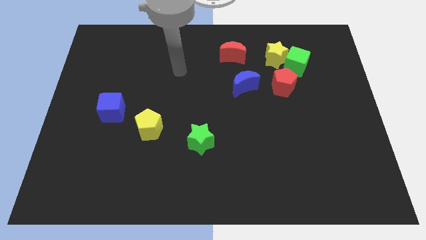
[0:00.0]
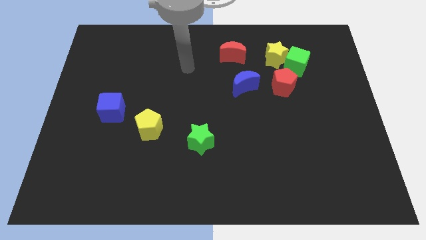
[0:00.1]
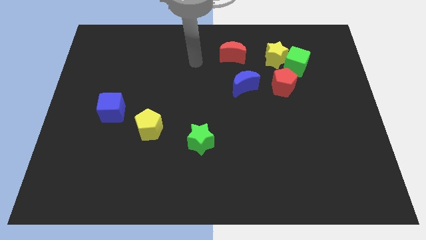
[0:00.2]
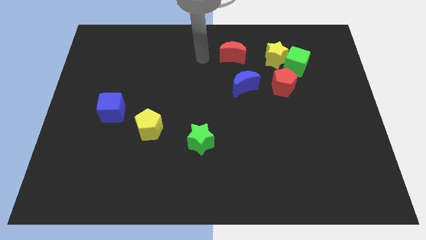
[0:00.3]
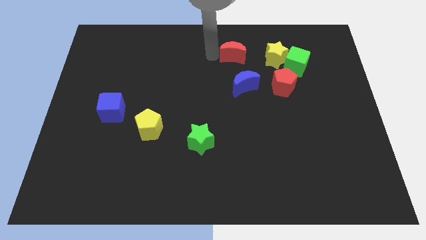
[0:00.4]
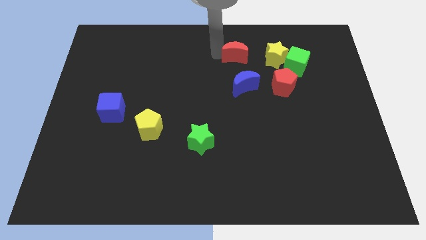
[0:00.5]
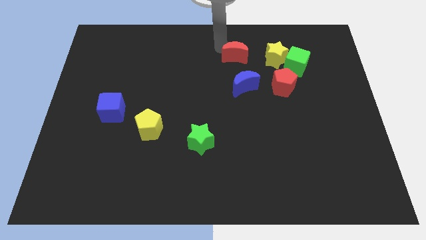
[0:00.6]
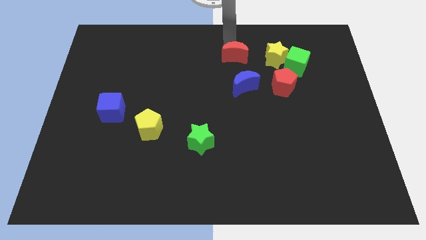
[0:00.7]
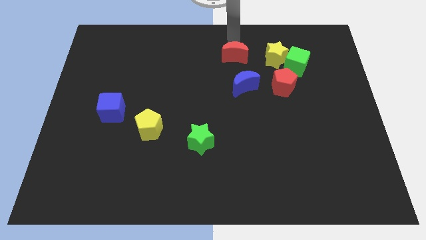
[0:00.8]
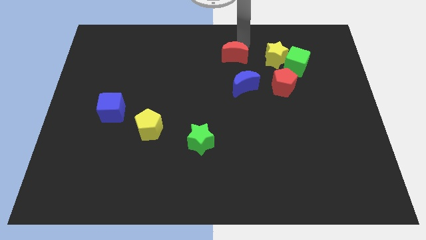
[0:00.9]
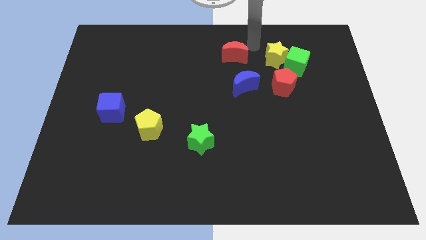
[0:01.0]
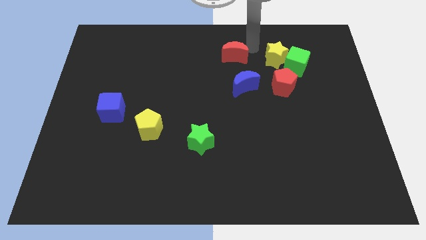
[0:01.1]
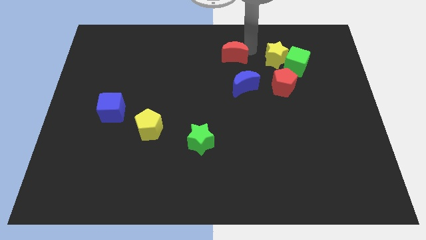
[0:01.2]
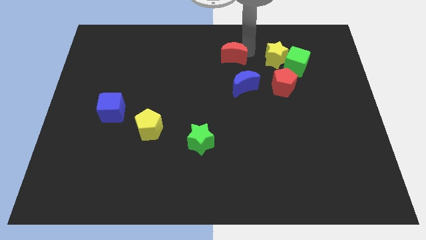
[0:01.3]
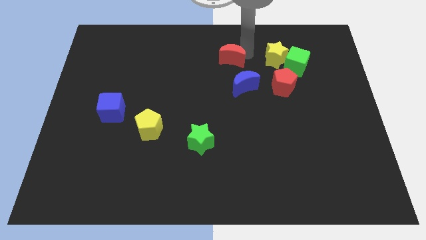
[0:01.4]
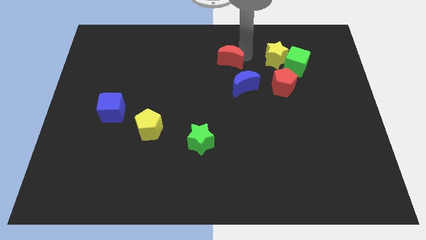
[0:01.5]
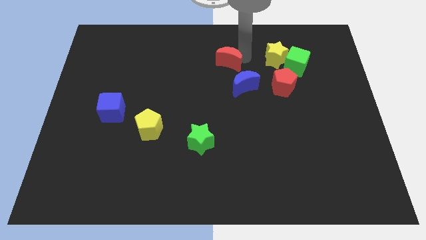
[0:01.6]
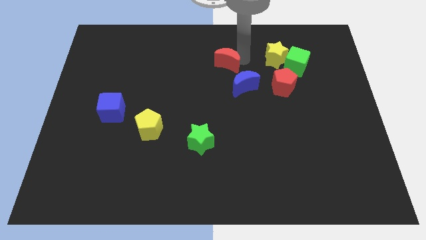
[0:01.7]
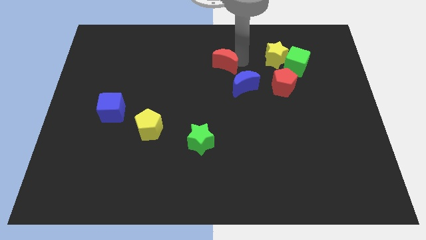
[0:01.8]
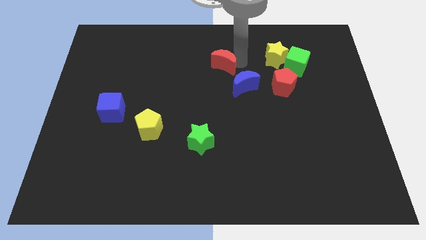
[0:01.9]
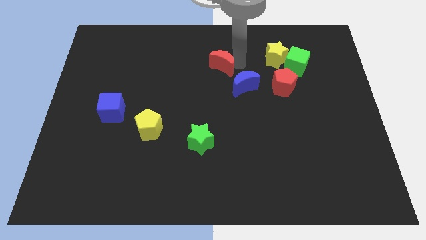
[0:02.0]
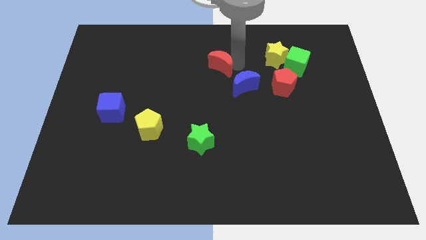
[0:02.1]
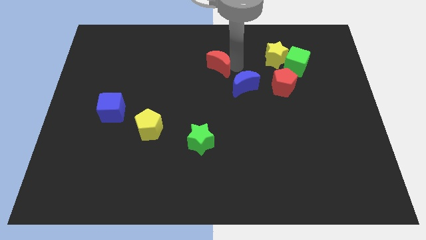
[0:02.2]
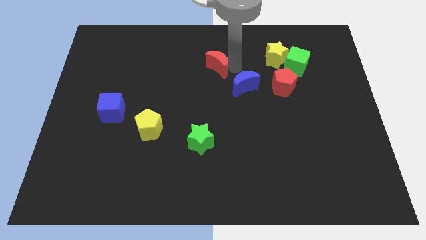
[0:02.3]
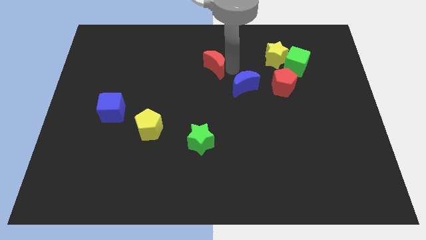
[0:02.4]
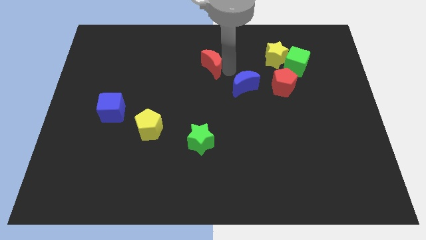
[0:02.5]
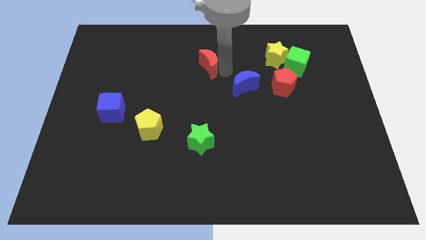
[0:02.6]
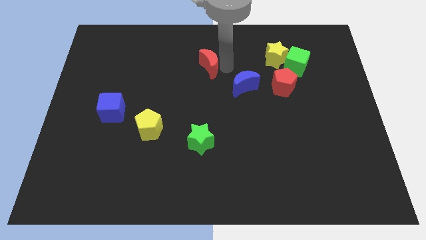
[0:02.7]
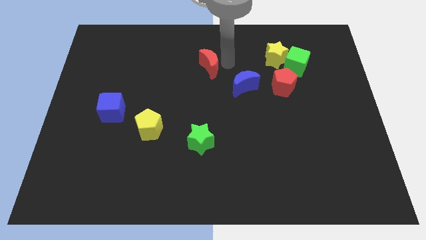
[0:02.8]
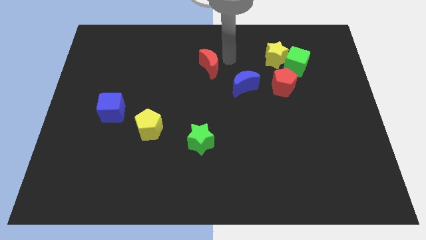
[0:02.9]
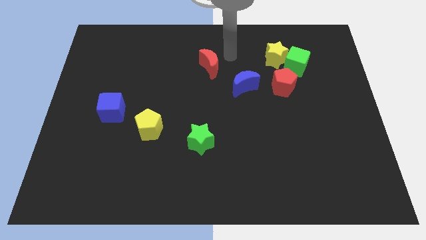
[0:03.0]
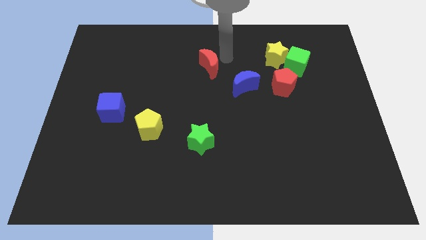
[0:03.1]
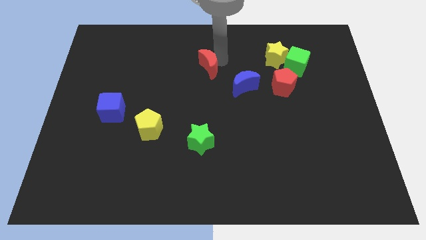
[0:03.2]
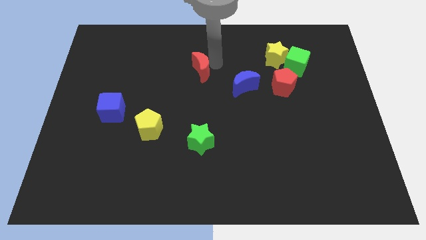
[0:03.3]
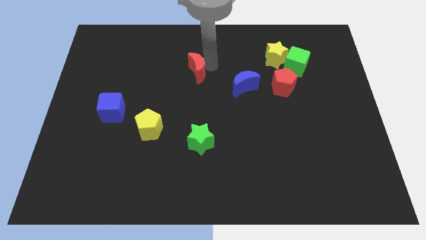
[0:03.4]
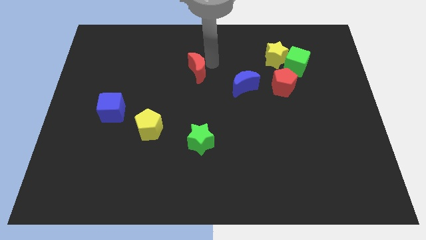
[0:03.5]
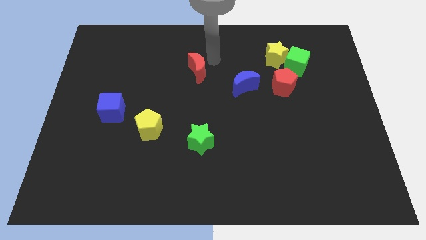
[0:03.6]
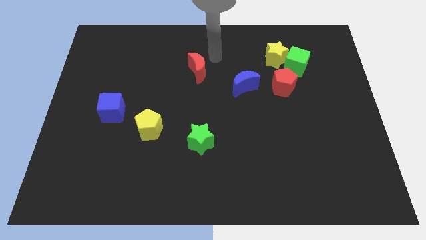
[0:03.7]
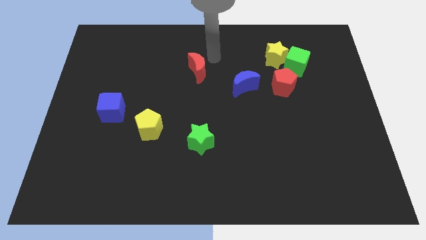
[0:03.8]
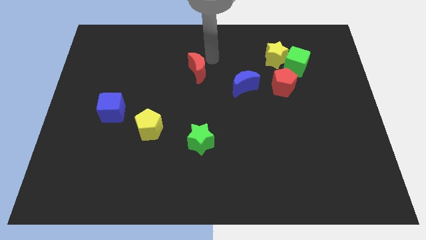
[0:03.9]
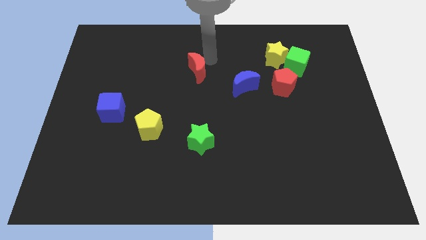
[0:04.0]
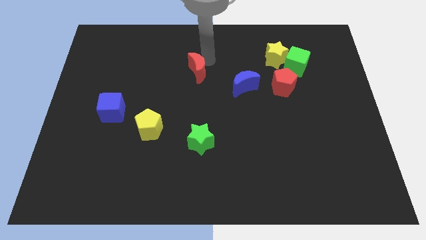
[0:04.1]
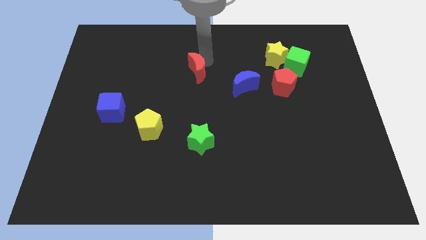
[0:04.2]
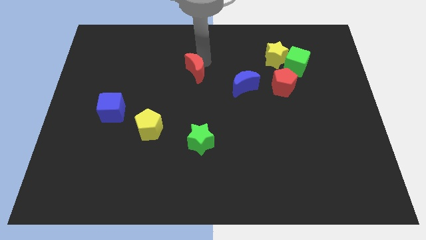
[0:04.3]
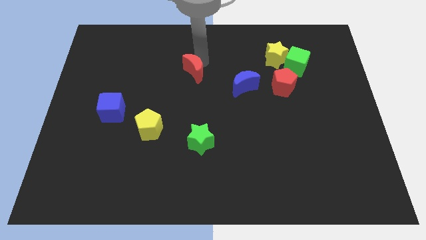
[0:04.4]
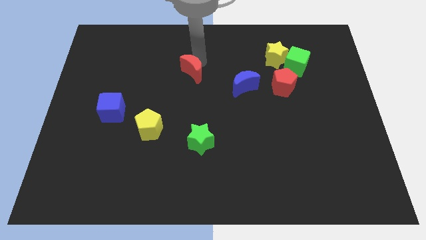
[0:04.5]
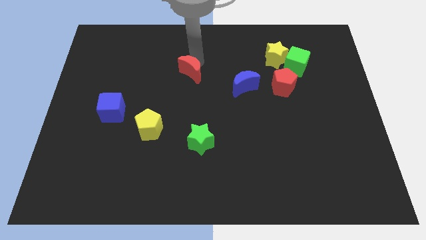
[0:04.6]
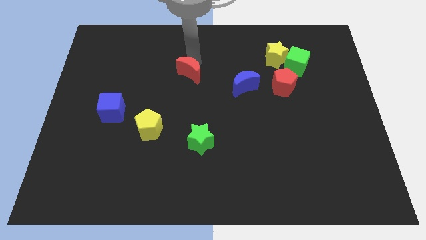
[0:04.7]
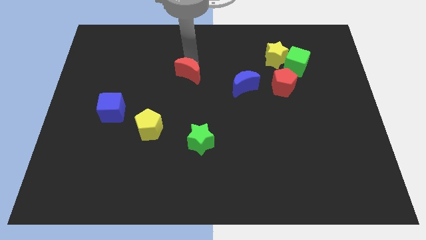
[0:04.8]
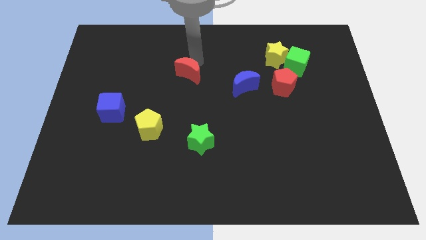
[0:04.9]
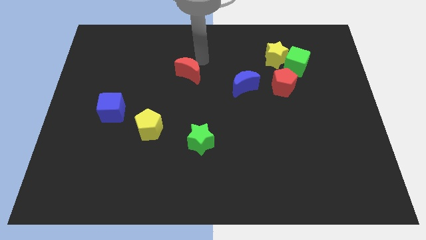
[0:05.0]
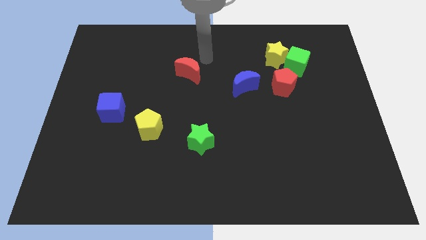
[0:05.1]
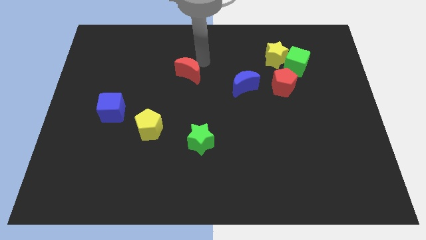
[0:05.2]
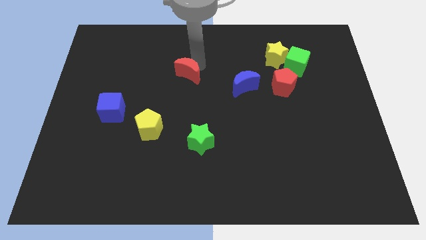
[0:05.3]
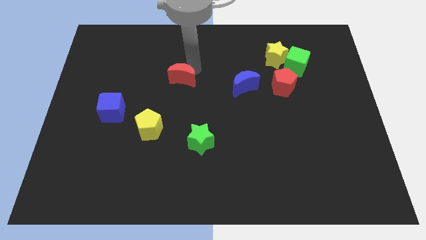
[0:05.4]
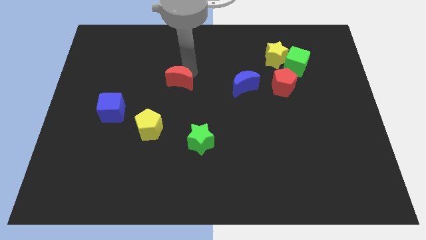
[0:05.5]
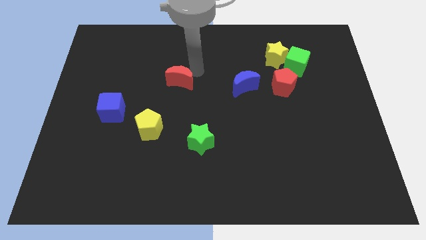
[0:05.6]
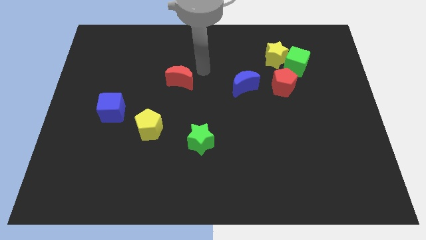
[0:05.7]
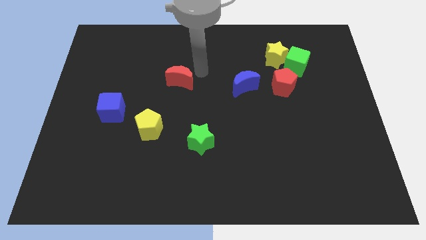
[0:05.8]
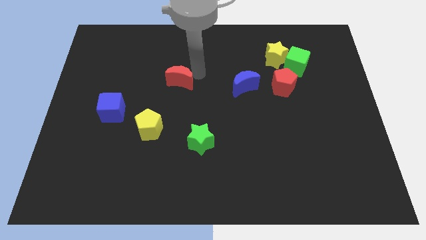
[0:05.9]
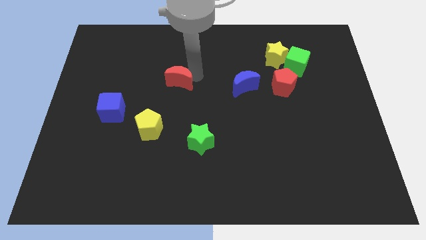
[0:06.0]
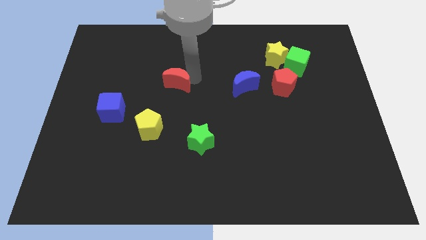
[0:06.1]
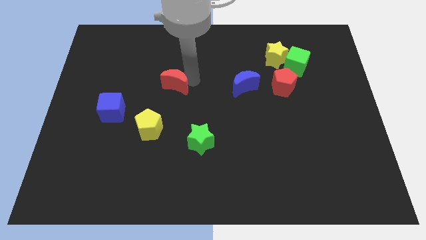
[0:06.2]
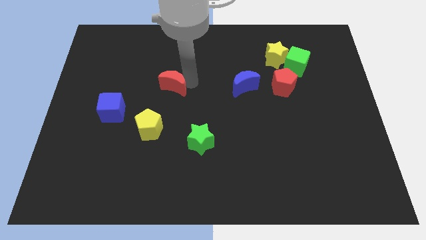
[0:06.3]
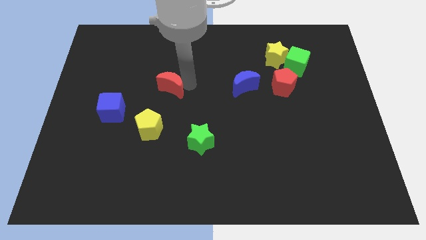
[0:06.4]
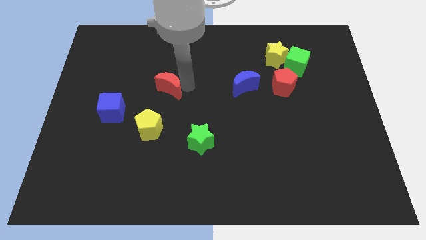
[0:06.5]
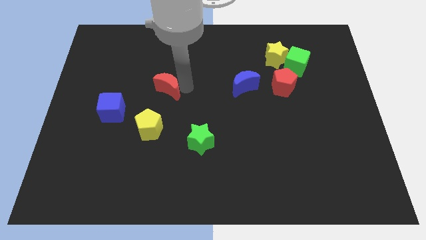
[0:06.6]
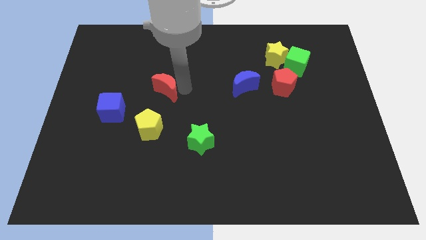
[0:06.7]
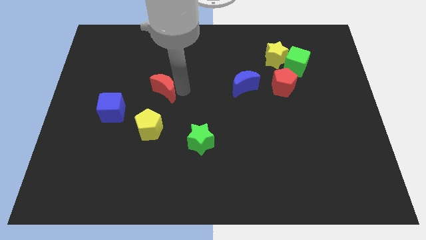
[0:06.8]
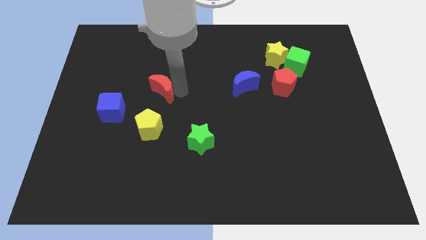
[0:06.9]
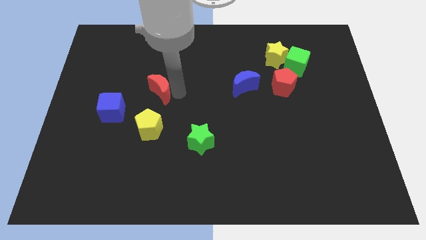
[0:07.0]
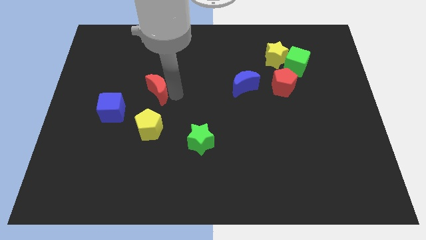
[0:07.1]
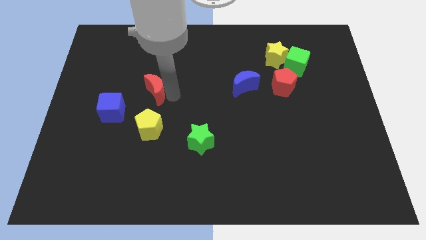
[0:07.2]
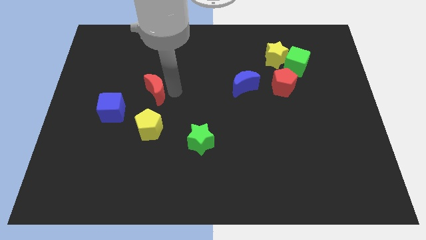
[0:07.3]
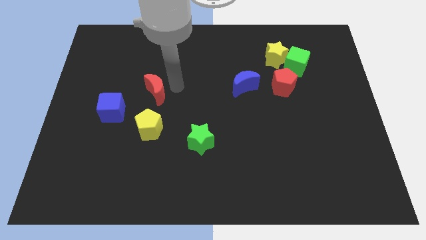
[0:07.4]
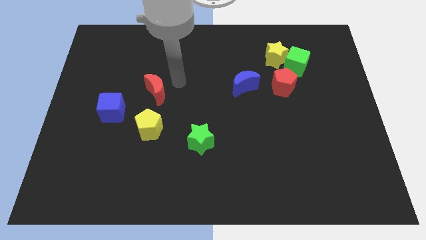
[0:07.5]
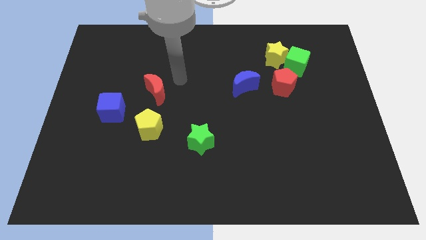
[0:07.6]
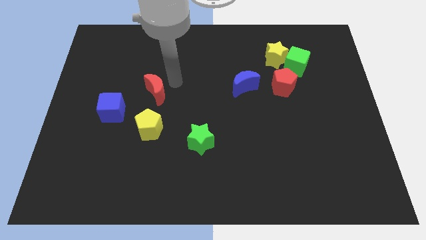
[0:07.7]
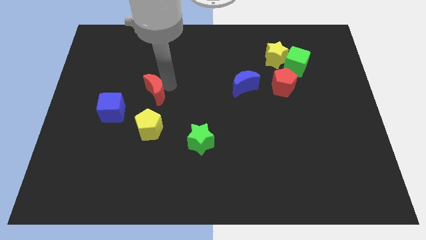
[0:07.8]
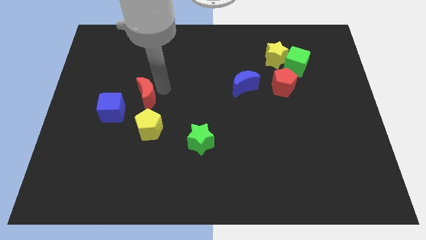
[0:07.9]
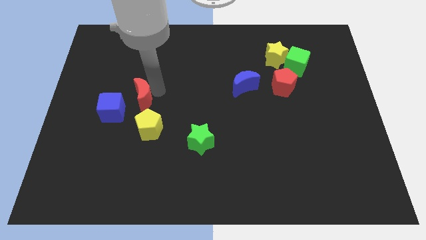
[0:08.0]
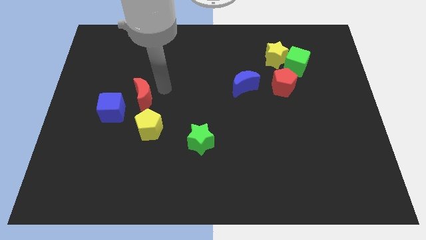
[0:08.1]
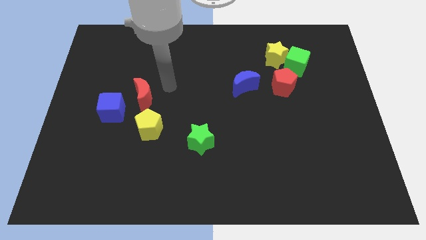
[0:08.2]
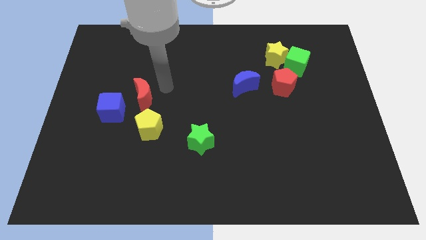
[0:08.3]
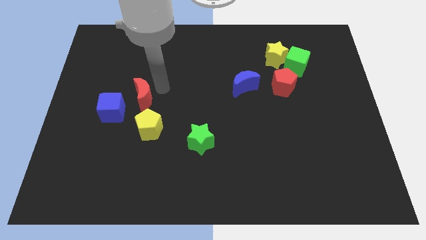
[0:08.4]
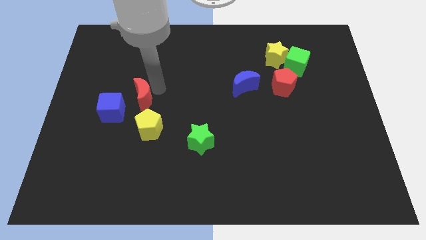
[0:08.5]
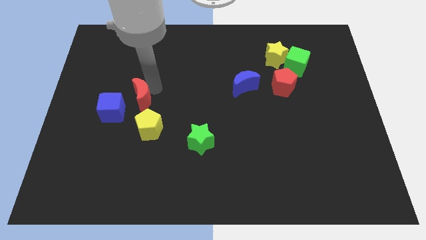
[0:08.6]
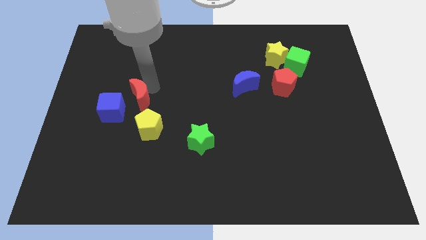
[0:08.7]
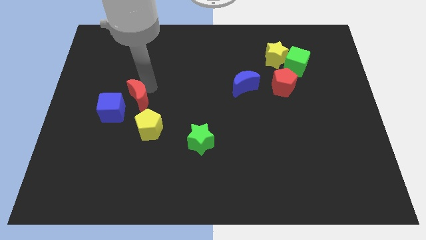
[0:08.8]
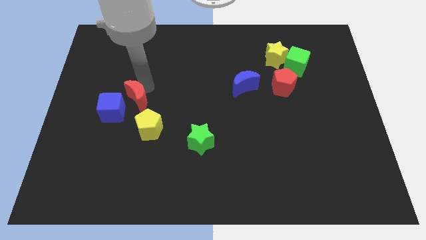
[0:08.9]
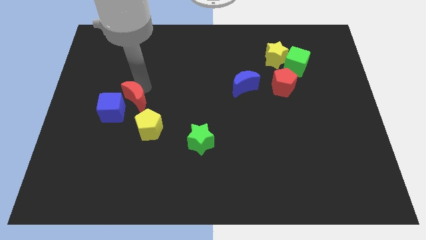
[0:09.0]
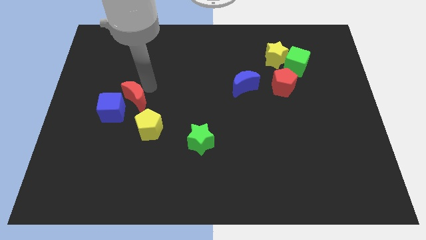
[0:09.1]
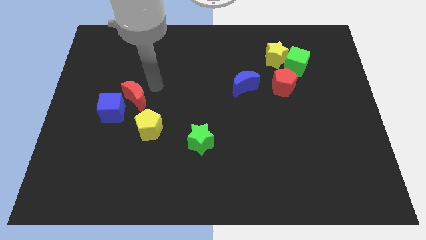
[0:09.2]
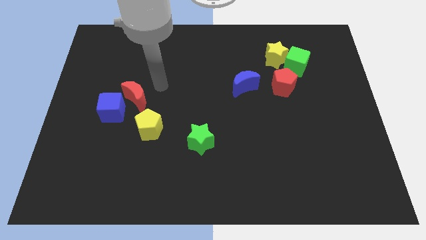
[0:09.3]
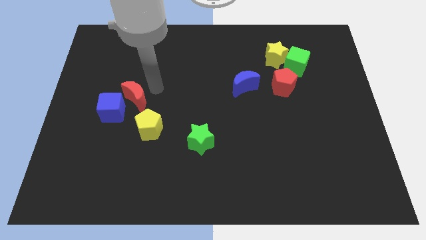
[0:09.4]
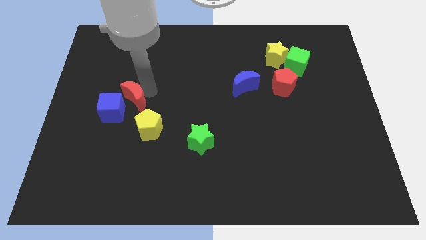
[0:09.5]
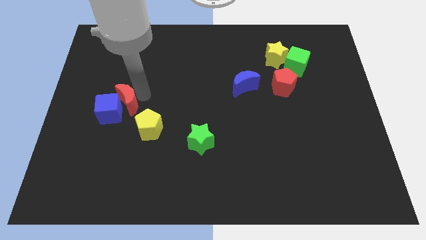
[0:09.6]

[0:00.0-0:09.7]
slide the red moon next to the blue cube
